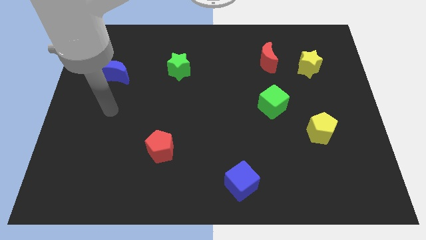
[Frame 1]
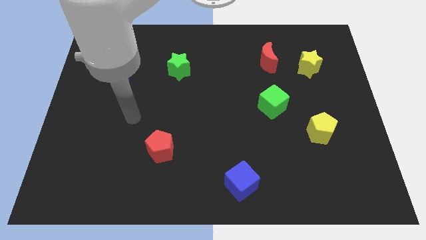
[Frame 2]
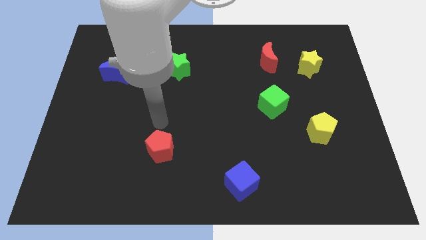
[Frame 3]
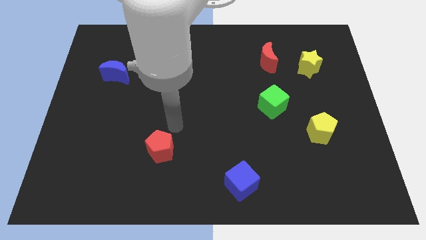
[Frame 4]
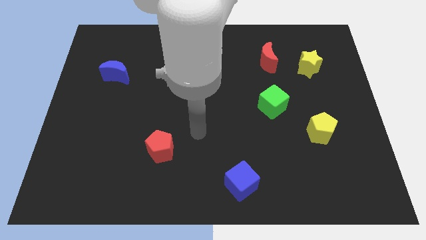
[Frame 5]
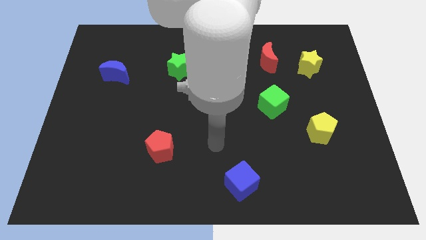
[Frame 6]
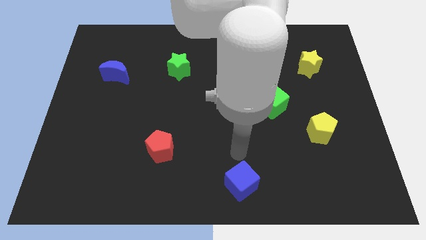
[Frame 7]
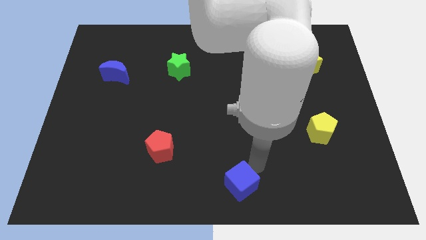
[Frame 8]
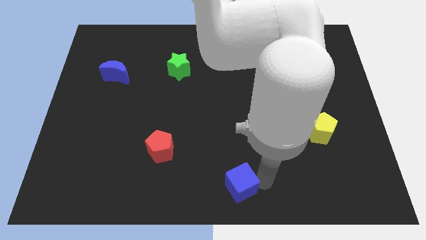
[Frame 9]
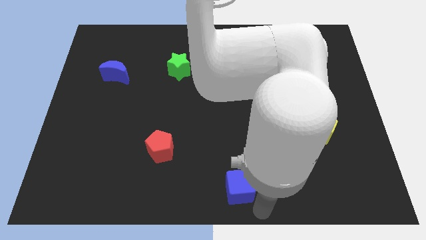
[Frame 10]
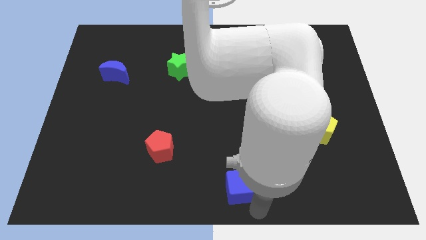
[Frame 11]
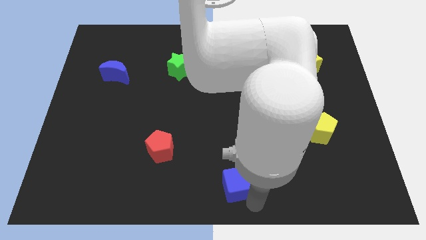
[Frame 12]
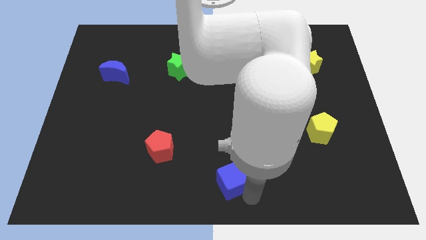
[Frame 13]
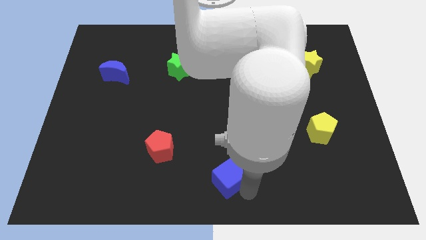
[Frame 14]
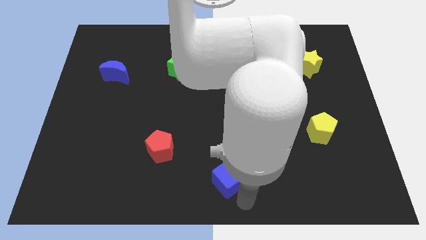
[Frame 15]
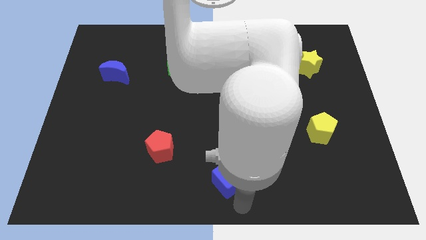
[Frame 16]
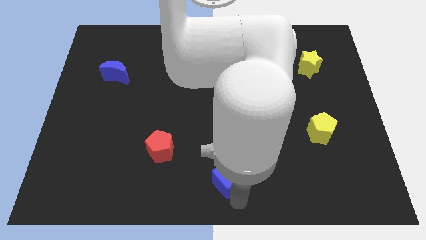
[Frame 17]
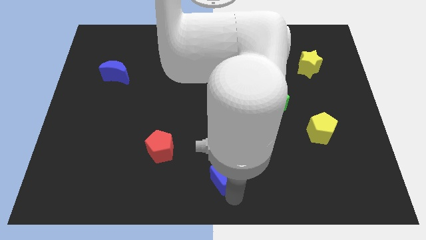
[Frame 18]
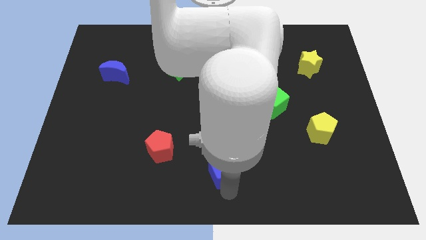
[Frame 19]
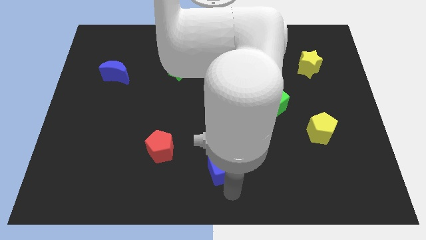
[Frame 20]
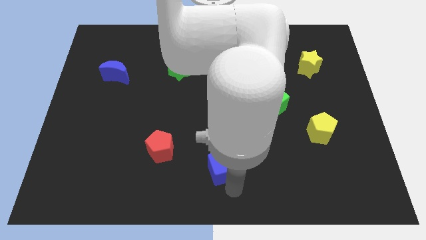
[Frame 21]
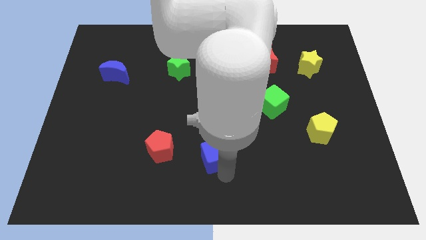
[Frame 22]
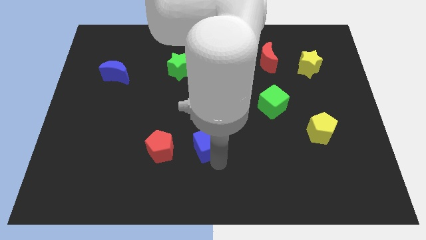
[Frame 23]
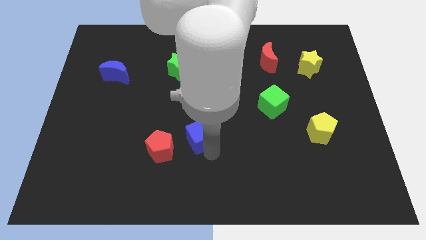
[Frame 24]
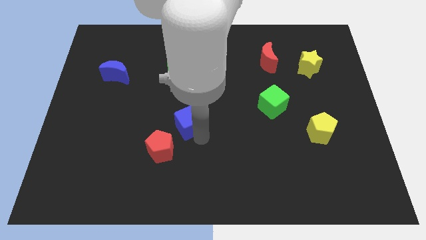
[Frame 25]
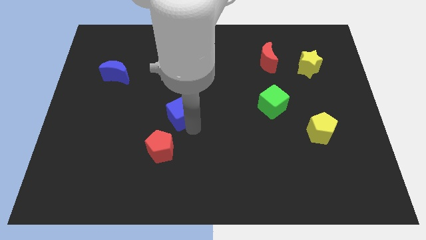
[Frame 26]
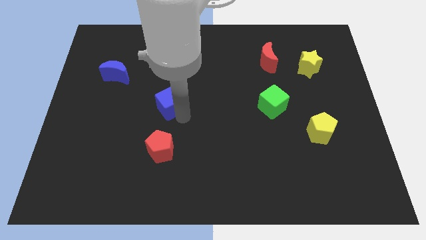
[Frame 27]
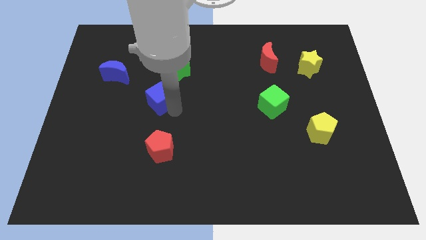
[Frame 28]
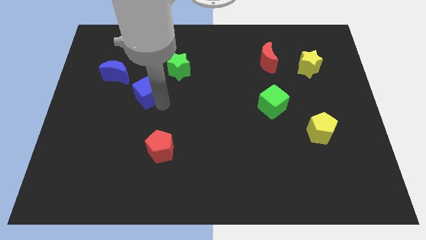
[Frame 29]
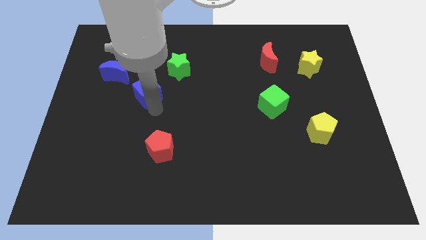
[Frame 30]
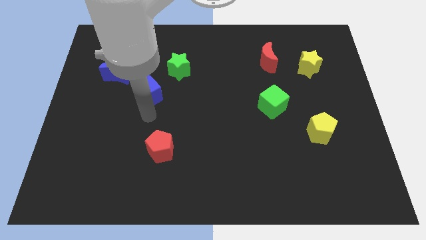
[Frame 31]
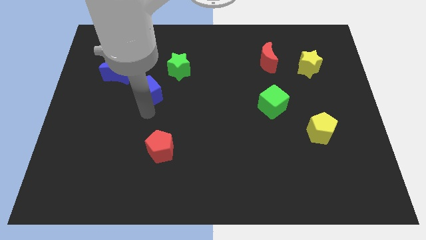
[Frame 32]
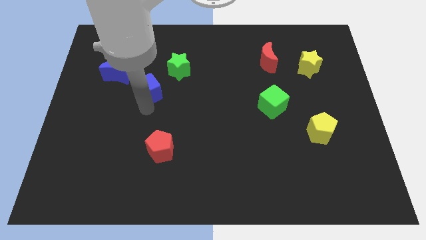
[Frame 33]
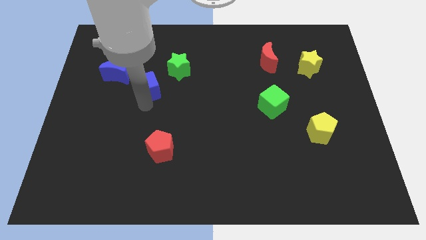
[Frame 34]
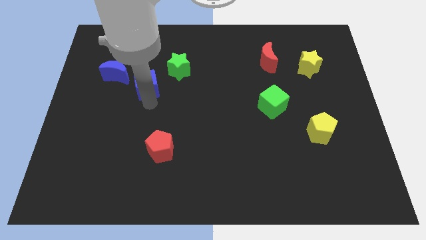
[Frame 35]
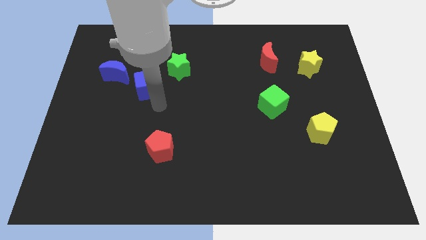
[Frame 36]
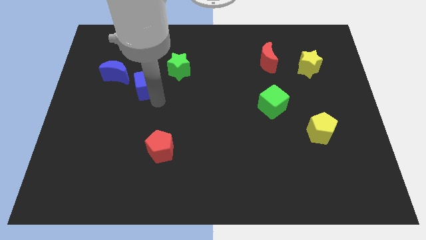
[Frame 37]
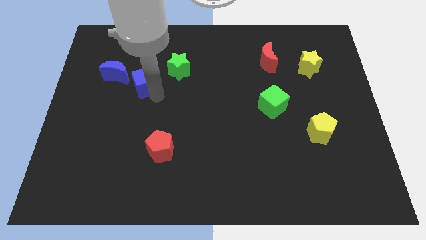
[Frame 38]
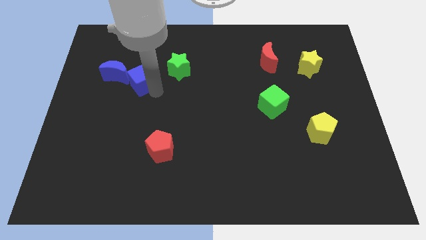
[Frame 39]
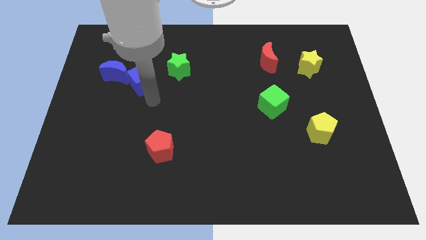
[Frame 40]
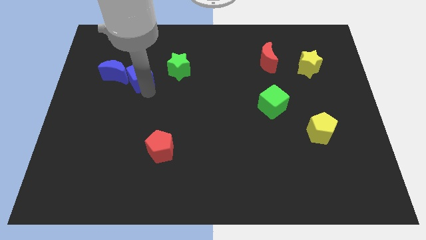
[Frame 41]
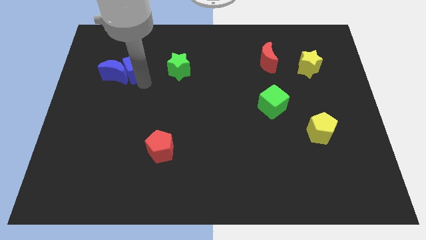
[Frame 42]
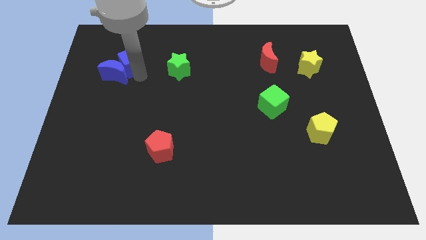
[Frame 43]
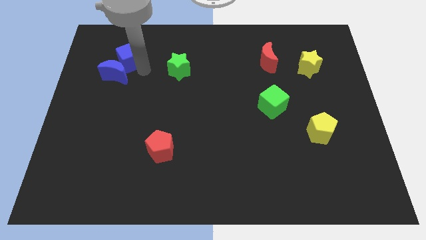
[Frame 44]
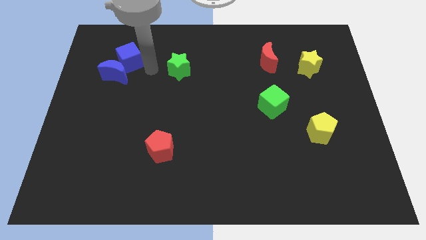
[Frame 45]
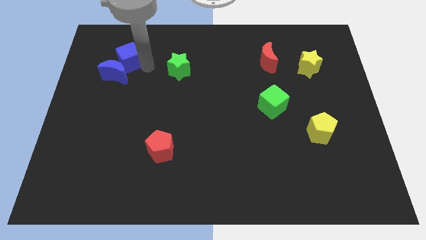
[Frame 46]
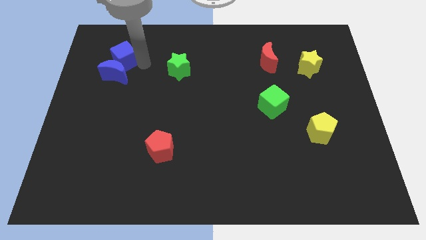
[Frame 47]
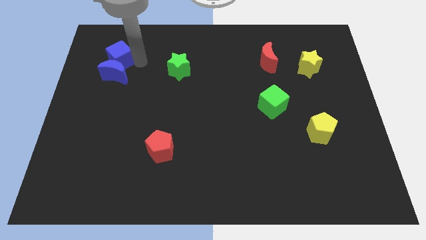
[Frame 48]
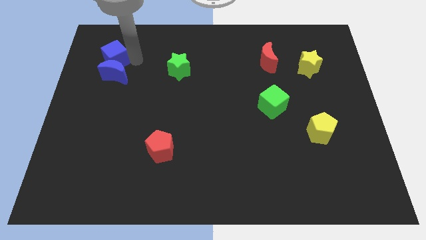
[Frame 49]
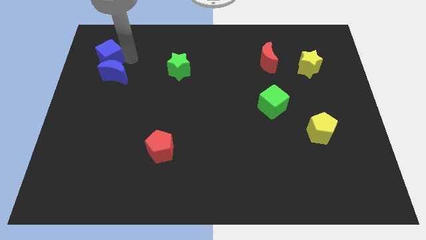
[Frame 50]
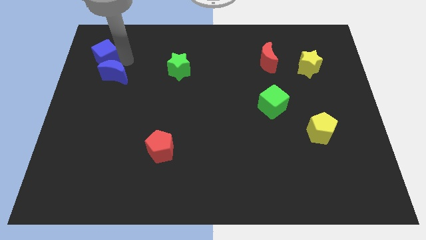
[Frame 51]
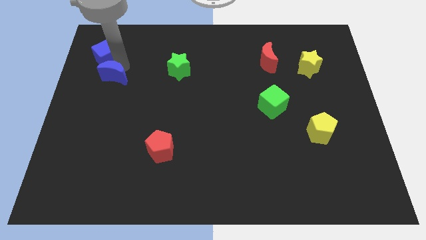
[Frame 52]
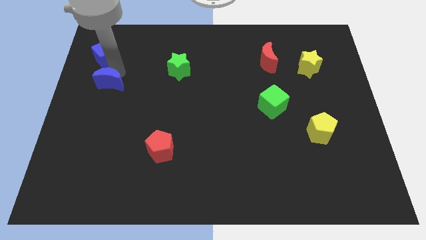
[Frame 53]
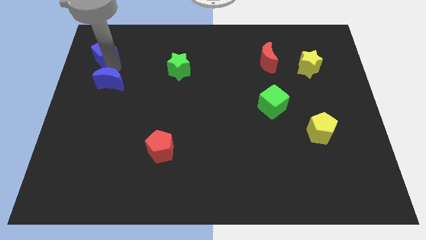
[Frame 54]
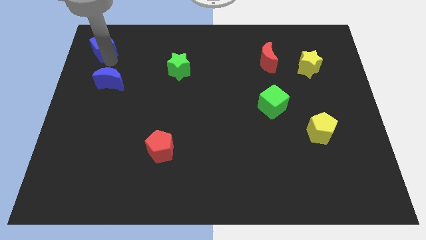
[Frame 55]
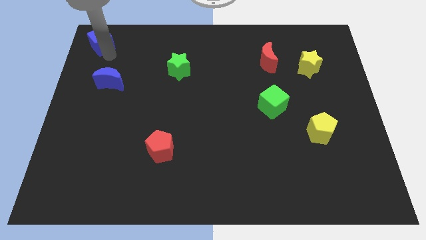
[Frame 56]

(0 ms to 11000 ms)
put the blue cube to the top left of the board

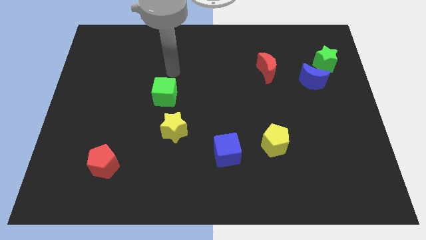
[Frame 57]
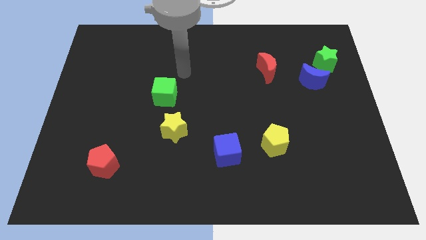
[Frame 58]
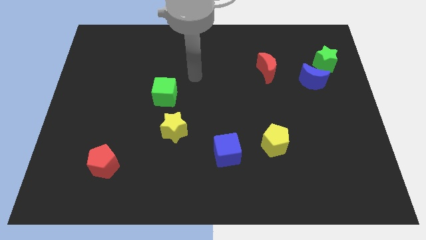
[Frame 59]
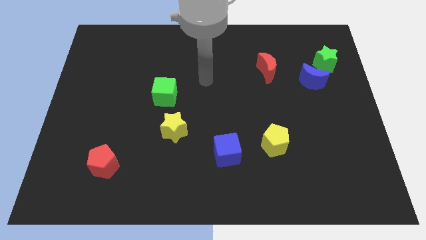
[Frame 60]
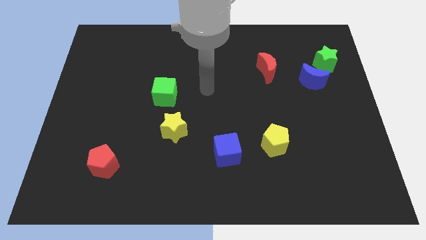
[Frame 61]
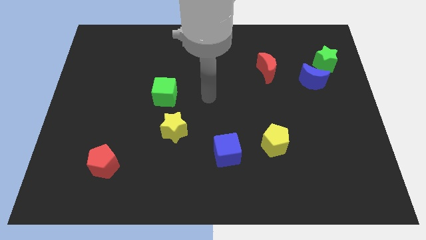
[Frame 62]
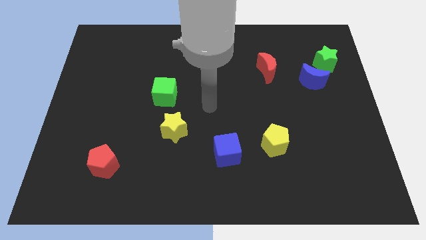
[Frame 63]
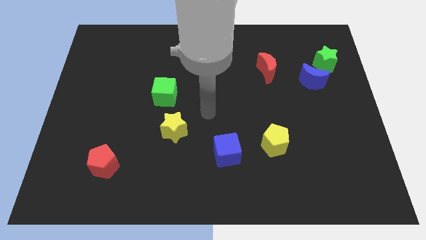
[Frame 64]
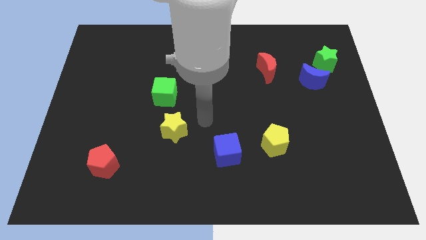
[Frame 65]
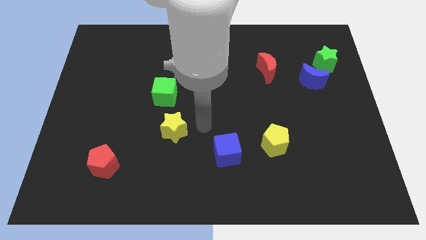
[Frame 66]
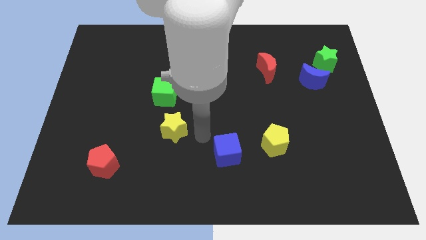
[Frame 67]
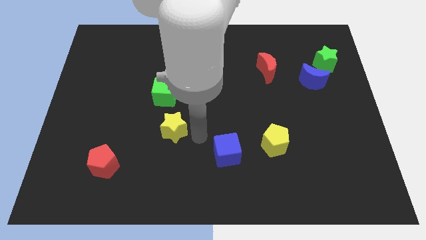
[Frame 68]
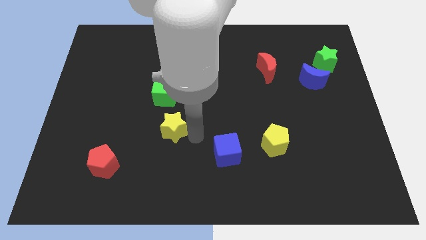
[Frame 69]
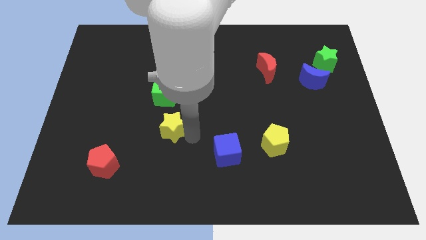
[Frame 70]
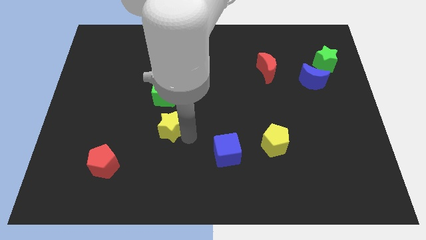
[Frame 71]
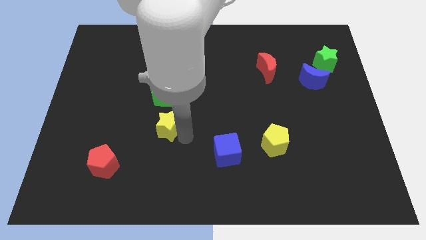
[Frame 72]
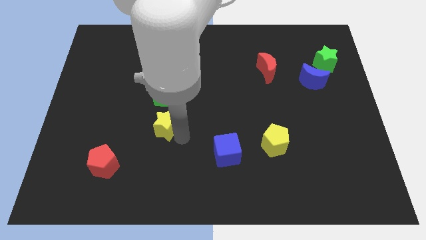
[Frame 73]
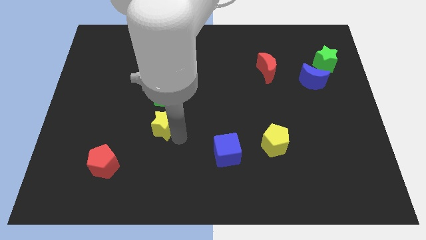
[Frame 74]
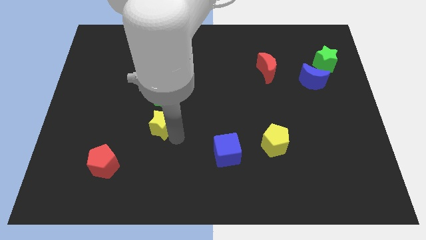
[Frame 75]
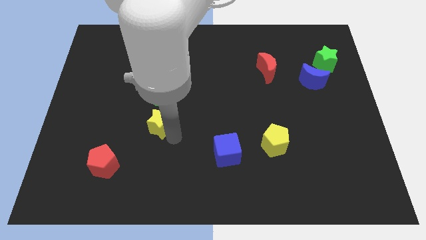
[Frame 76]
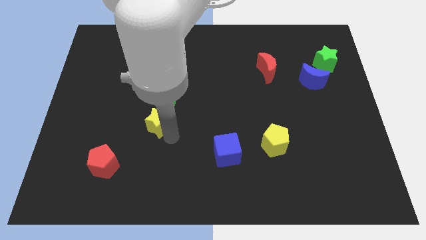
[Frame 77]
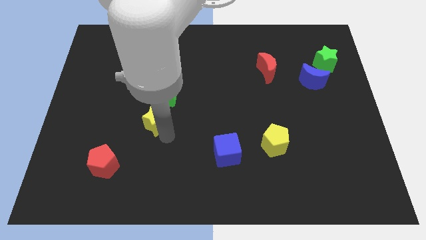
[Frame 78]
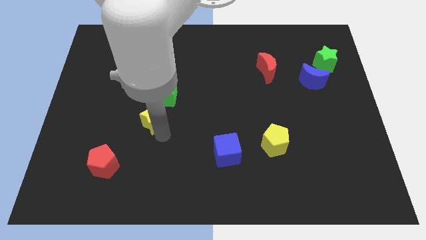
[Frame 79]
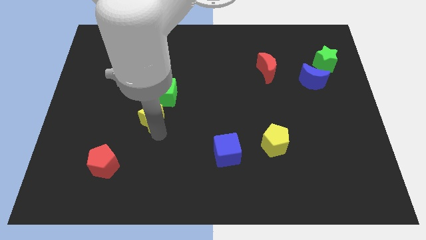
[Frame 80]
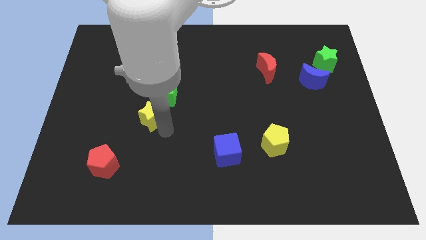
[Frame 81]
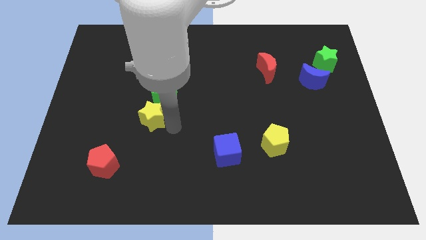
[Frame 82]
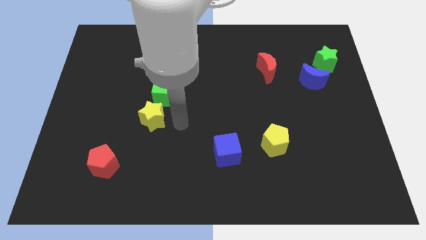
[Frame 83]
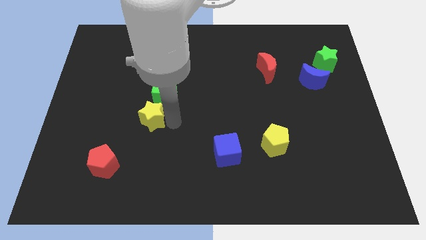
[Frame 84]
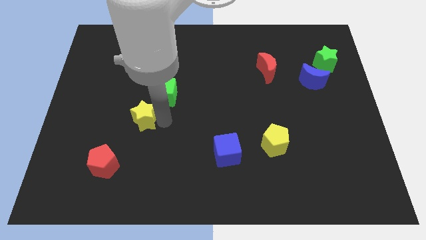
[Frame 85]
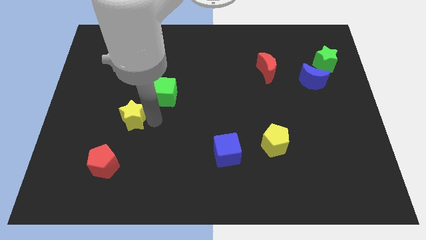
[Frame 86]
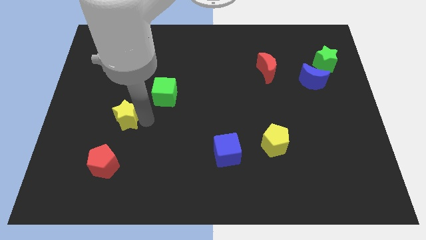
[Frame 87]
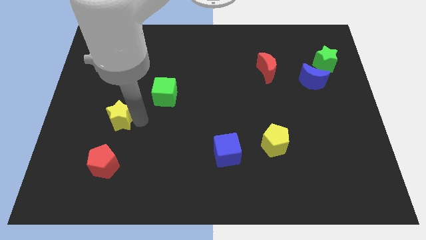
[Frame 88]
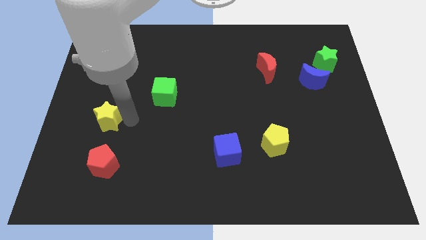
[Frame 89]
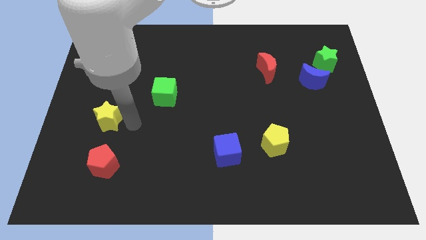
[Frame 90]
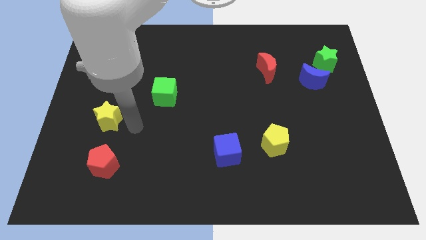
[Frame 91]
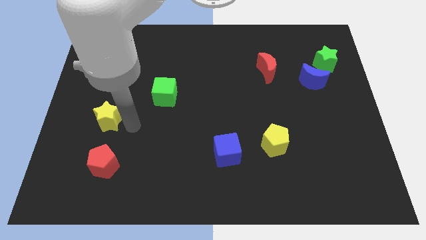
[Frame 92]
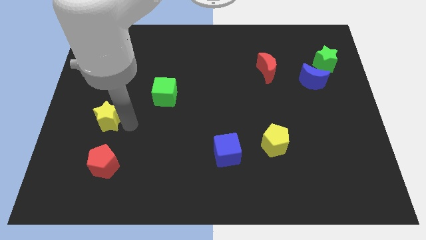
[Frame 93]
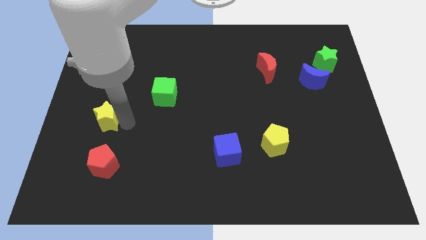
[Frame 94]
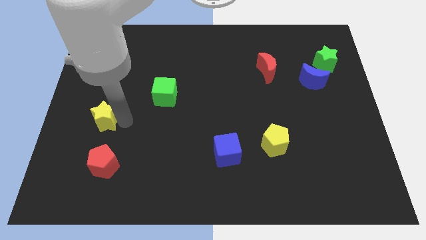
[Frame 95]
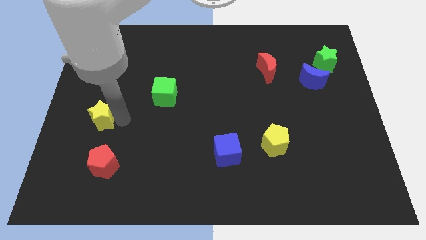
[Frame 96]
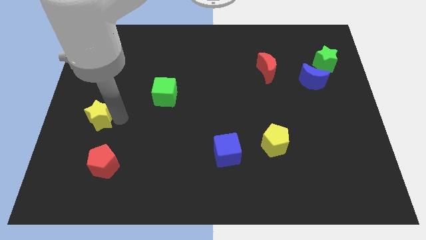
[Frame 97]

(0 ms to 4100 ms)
slide the yellow star to the left side of the board
